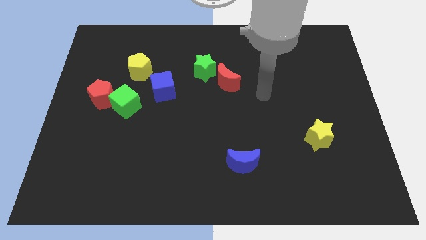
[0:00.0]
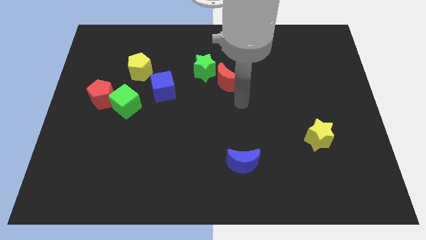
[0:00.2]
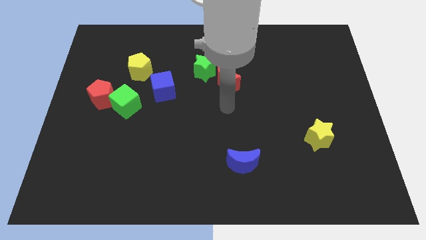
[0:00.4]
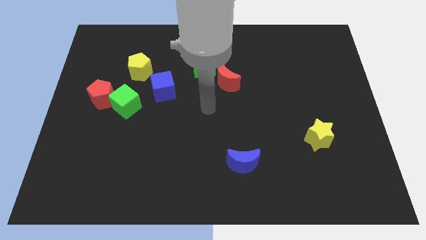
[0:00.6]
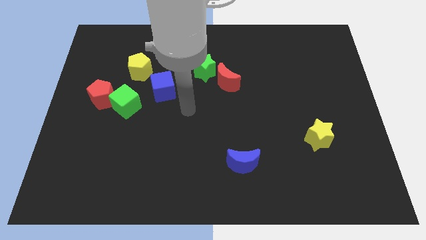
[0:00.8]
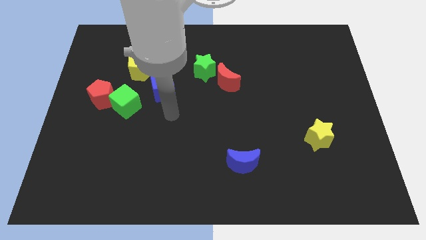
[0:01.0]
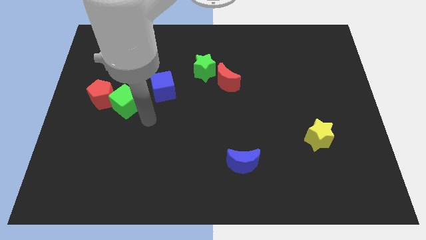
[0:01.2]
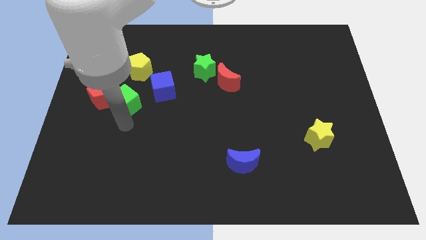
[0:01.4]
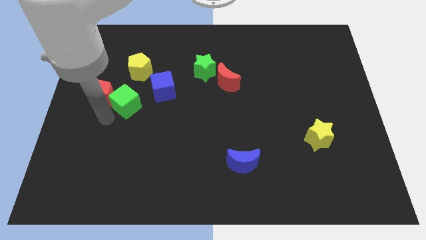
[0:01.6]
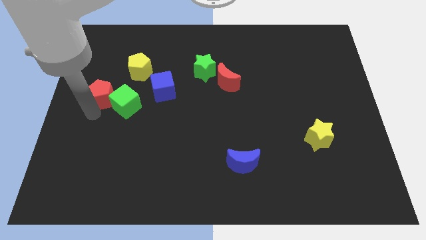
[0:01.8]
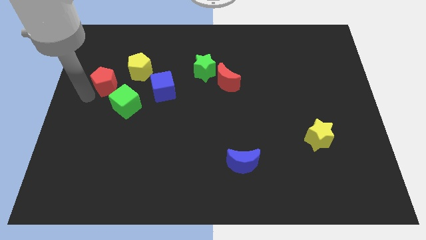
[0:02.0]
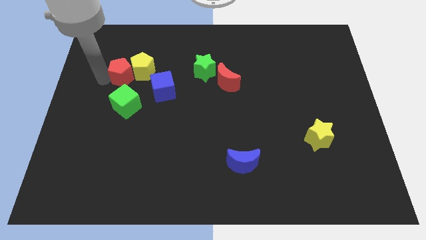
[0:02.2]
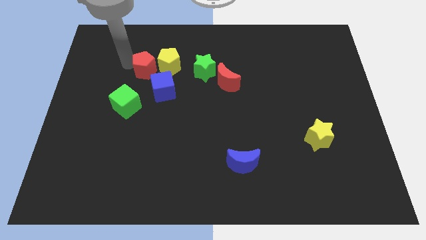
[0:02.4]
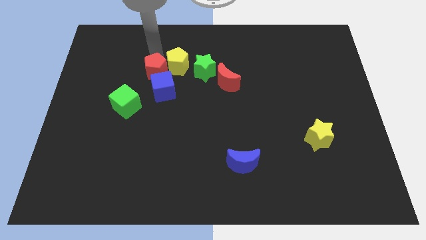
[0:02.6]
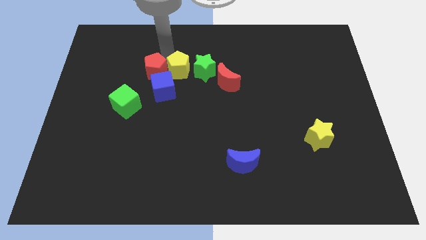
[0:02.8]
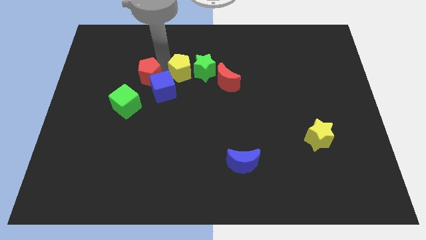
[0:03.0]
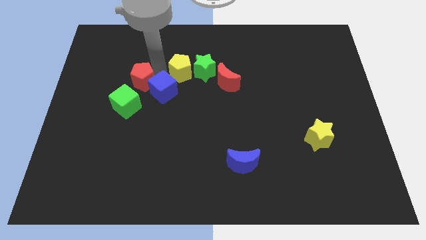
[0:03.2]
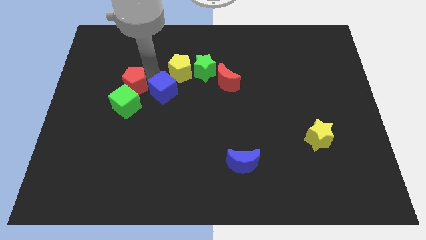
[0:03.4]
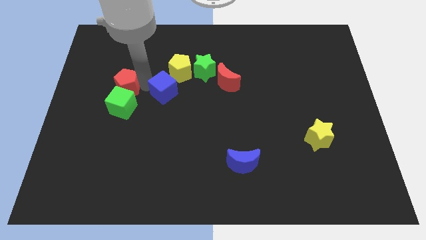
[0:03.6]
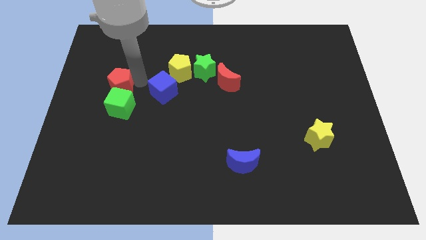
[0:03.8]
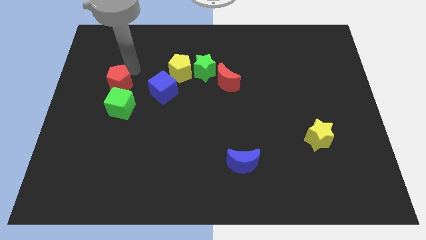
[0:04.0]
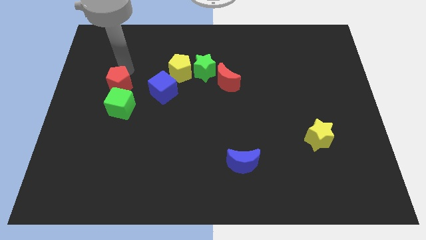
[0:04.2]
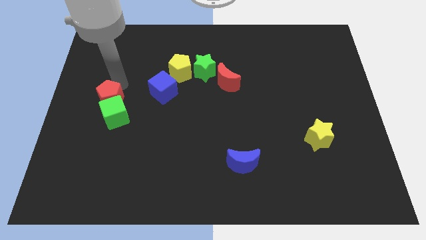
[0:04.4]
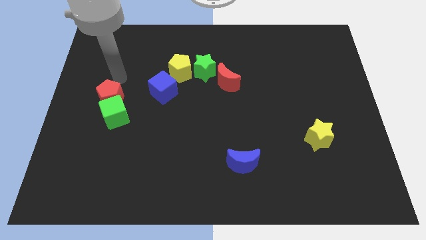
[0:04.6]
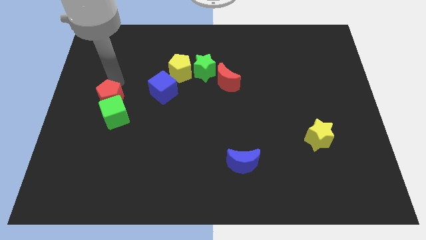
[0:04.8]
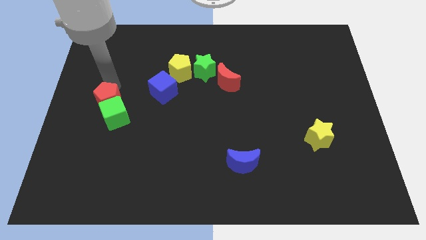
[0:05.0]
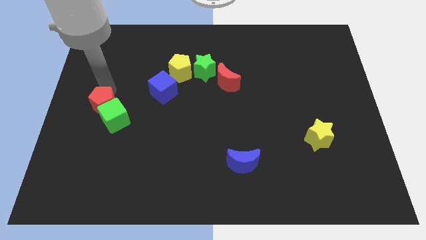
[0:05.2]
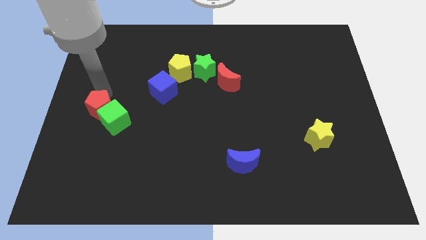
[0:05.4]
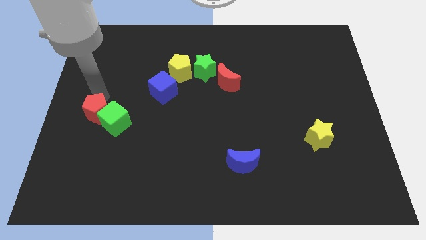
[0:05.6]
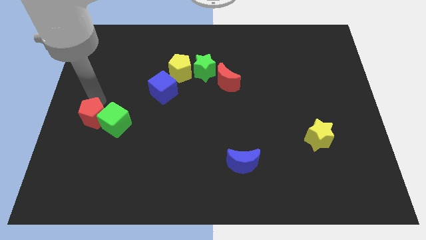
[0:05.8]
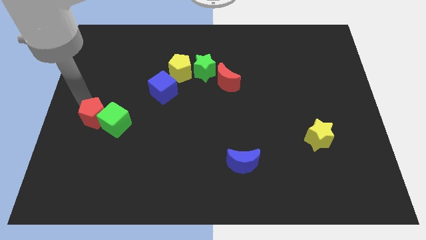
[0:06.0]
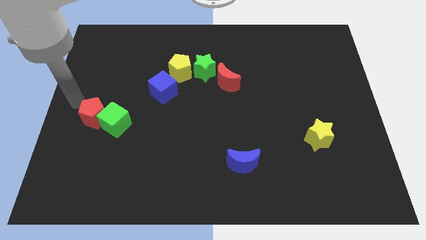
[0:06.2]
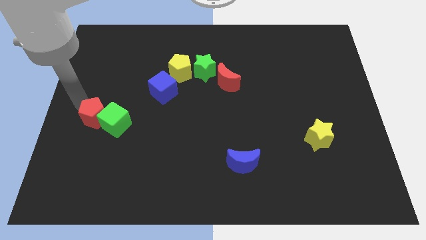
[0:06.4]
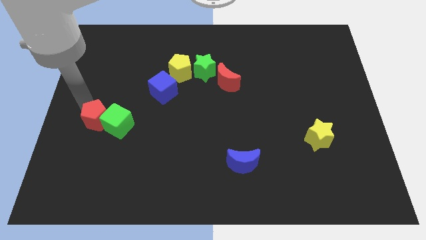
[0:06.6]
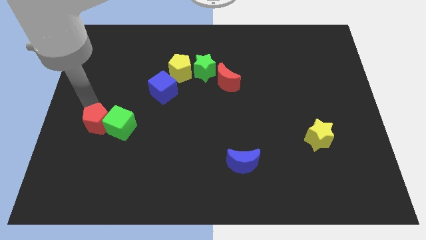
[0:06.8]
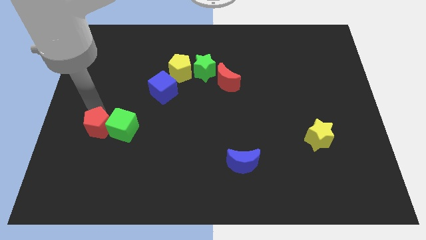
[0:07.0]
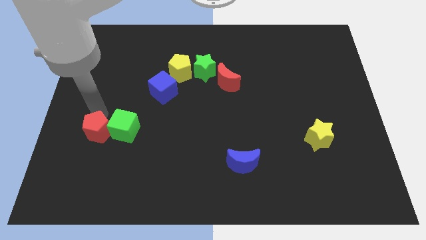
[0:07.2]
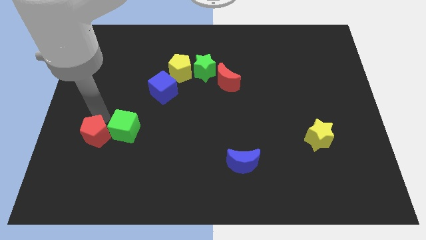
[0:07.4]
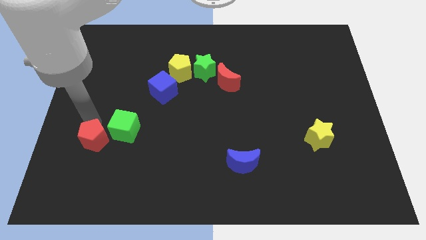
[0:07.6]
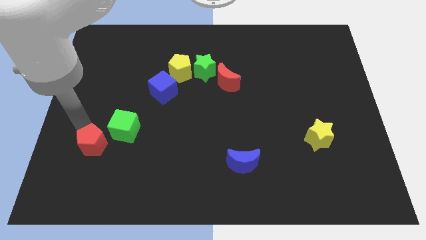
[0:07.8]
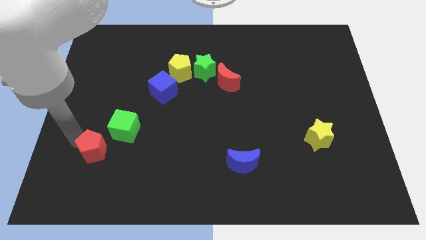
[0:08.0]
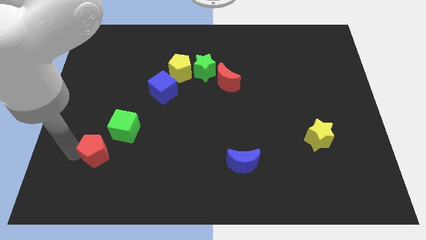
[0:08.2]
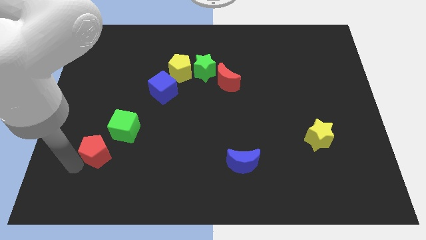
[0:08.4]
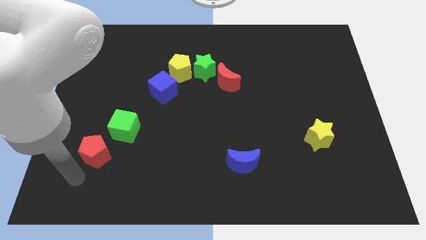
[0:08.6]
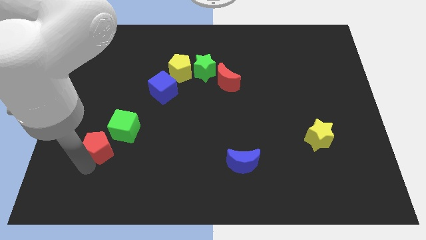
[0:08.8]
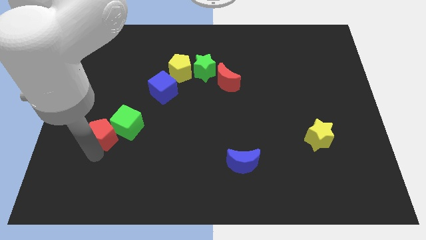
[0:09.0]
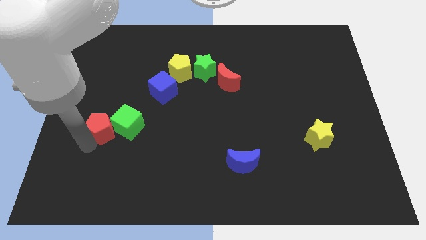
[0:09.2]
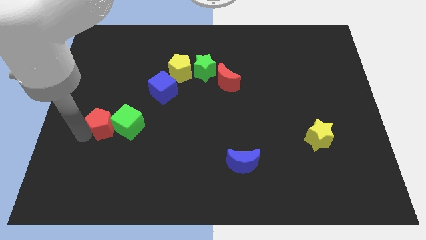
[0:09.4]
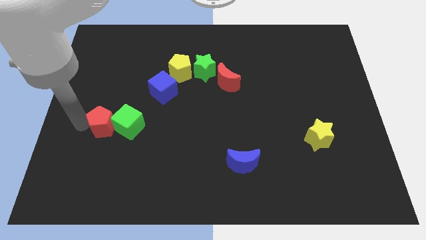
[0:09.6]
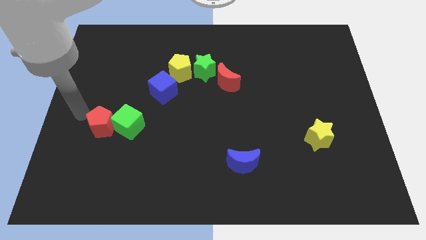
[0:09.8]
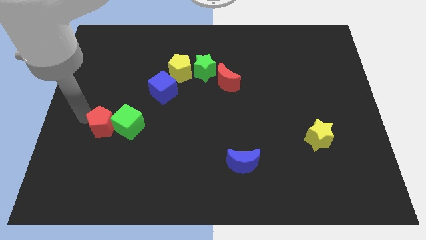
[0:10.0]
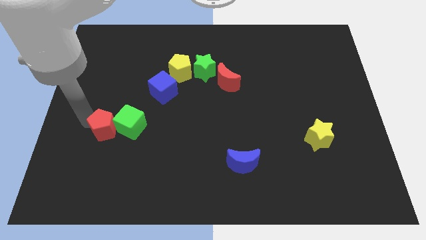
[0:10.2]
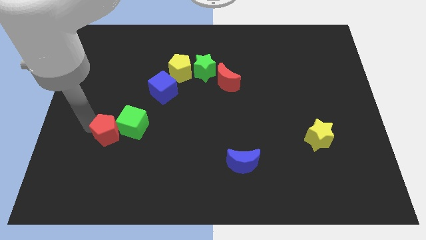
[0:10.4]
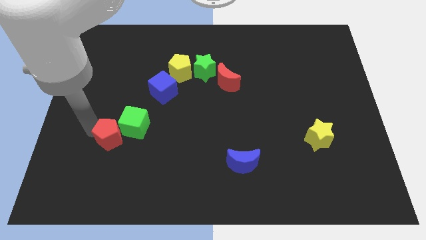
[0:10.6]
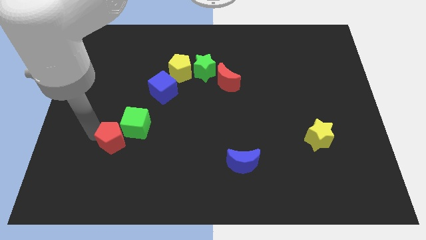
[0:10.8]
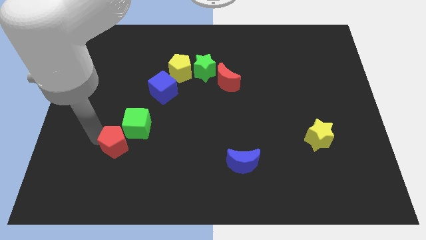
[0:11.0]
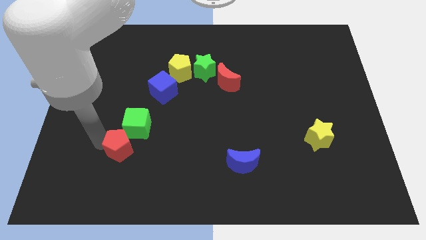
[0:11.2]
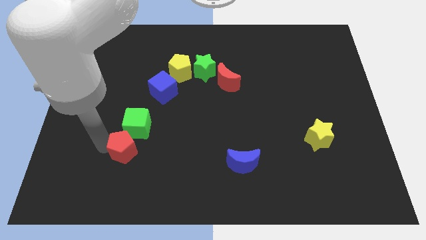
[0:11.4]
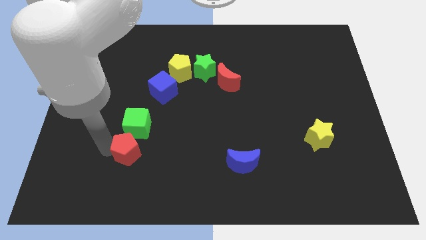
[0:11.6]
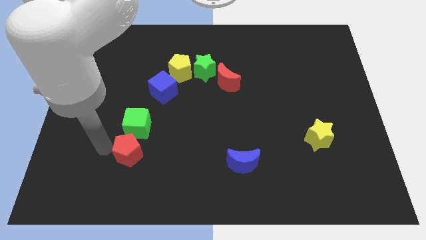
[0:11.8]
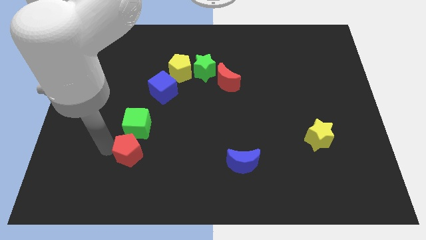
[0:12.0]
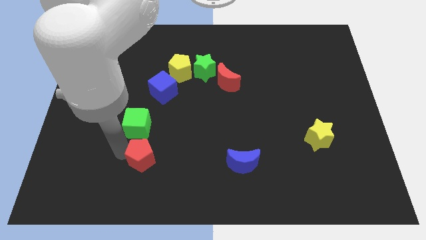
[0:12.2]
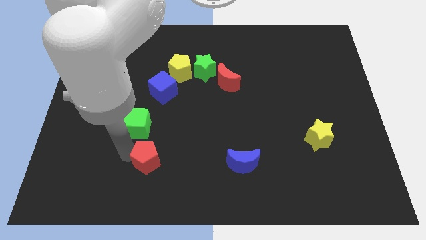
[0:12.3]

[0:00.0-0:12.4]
move the red pentagon down and to the right

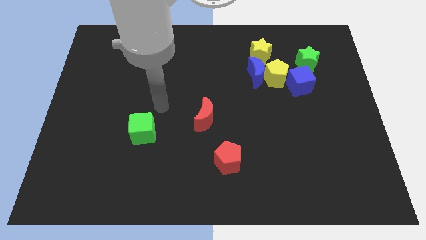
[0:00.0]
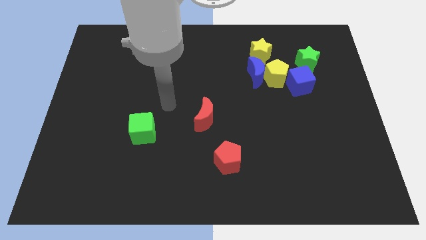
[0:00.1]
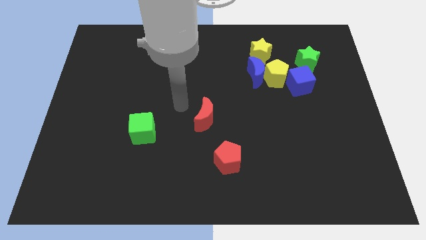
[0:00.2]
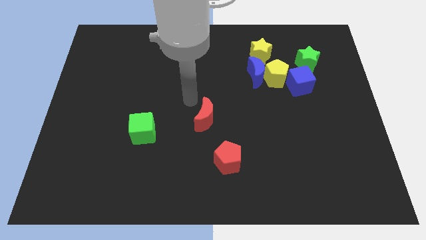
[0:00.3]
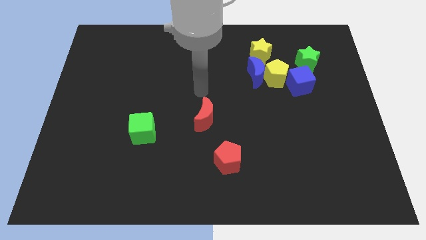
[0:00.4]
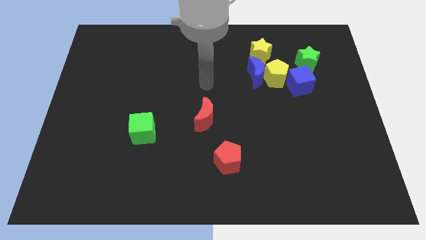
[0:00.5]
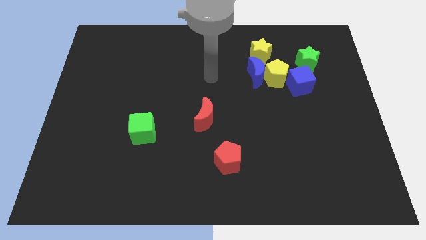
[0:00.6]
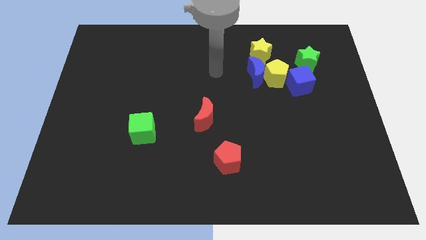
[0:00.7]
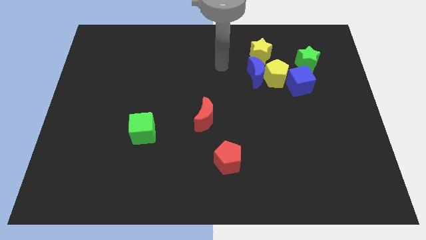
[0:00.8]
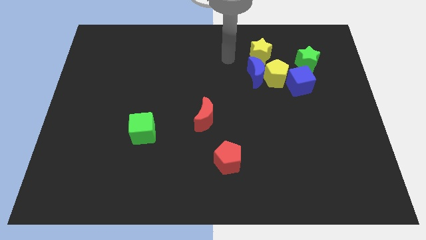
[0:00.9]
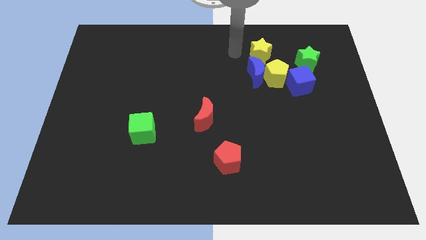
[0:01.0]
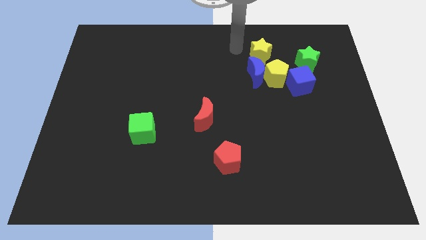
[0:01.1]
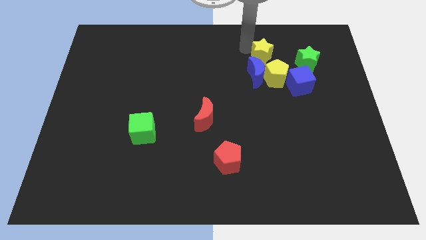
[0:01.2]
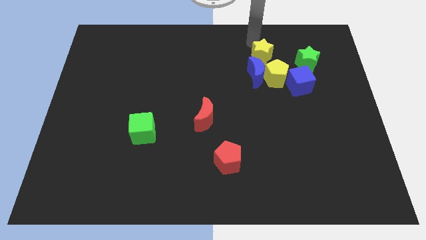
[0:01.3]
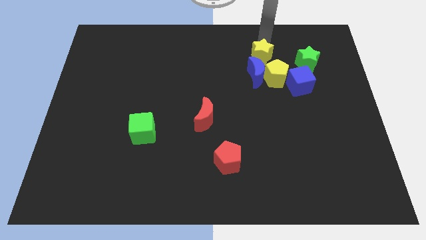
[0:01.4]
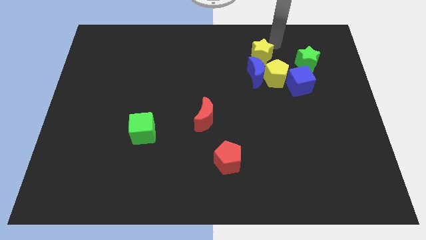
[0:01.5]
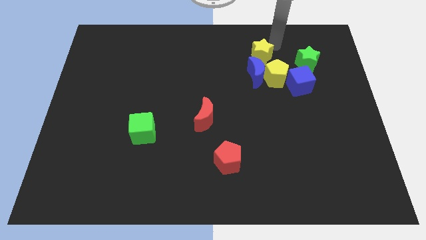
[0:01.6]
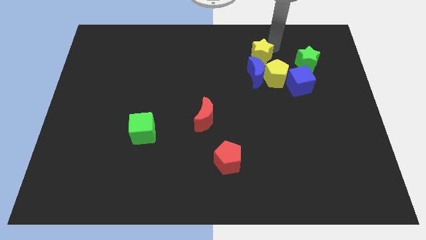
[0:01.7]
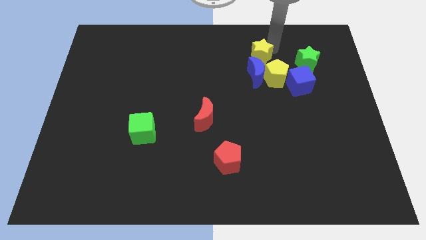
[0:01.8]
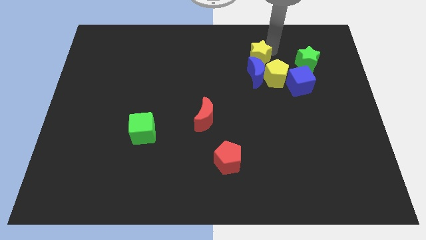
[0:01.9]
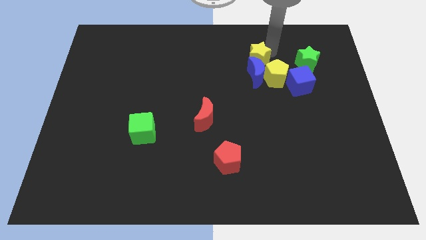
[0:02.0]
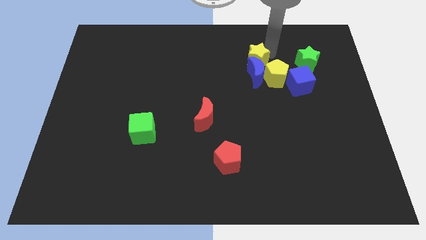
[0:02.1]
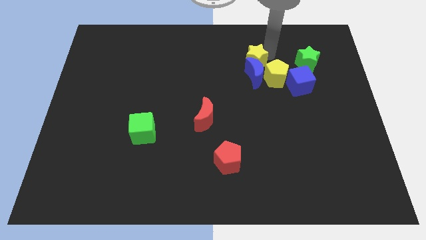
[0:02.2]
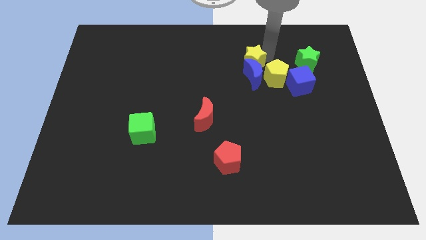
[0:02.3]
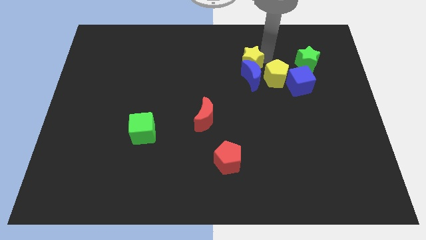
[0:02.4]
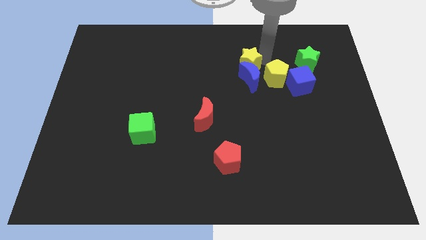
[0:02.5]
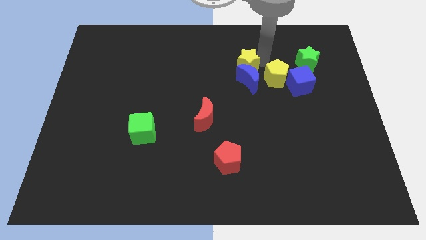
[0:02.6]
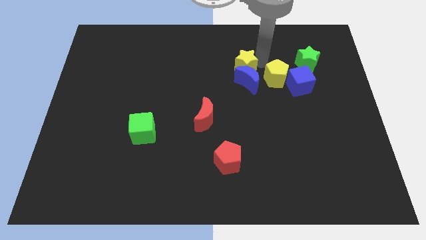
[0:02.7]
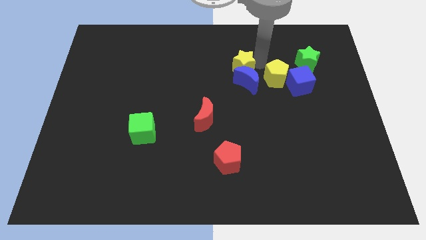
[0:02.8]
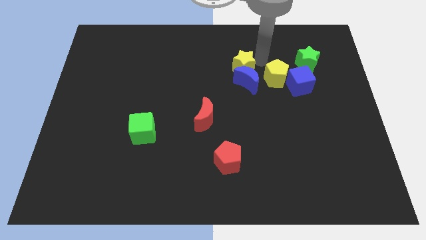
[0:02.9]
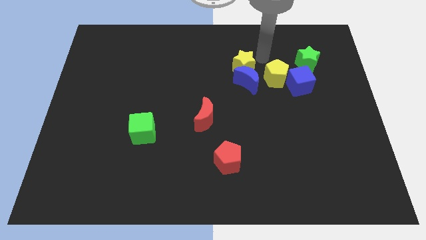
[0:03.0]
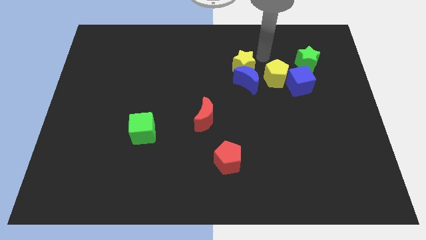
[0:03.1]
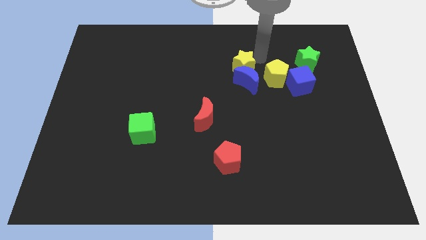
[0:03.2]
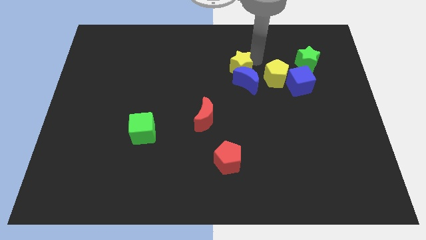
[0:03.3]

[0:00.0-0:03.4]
push the yellow star a bit downwards and left diagonally
